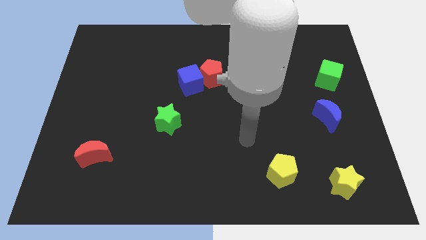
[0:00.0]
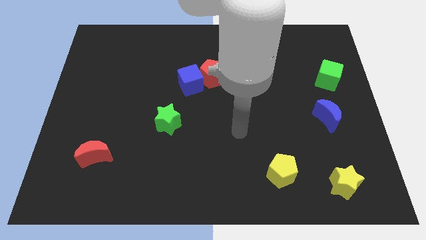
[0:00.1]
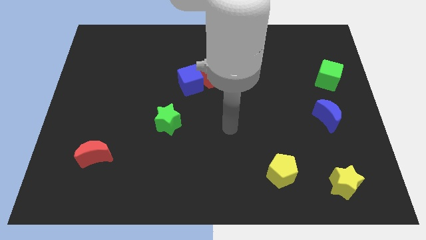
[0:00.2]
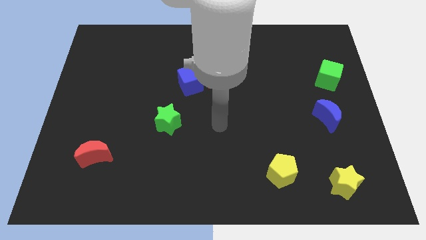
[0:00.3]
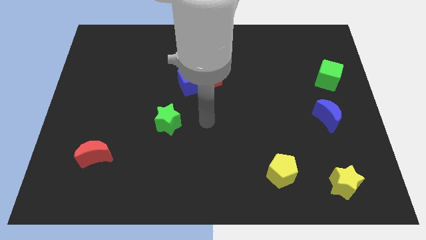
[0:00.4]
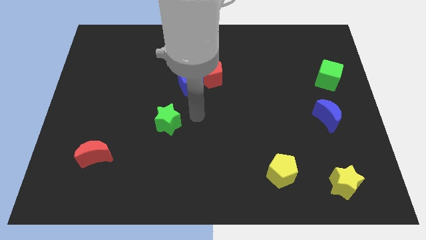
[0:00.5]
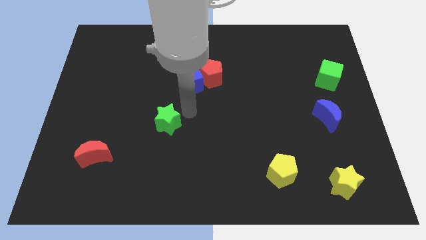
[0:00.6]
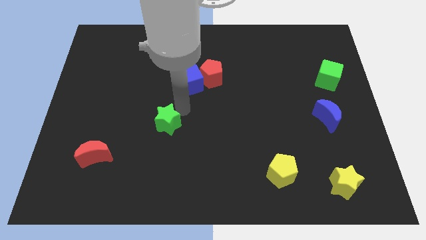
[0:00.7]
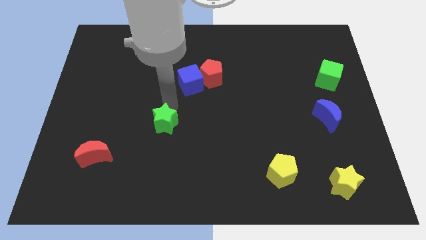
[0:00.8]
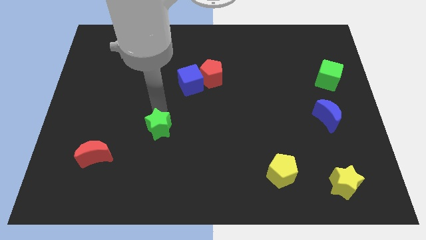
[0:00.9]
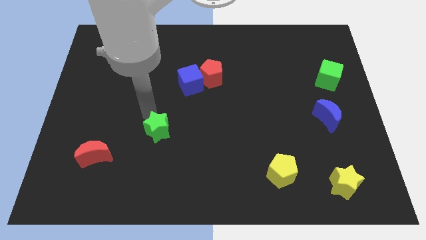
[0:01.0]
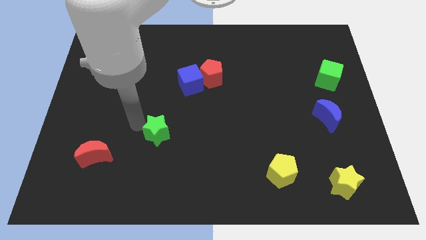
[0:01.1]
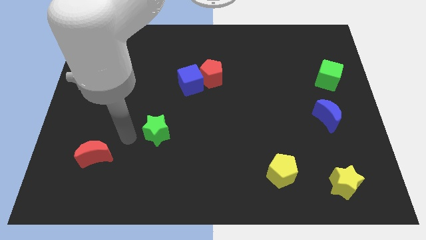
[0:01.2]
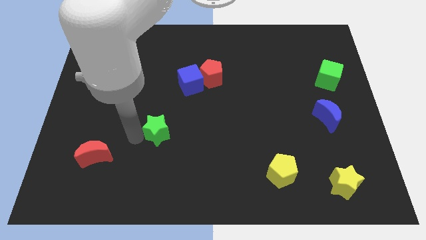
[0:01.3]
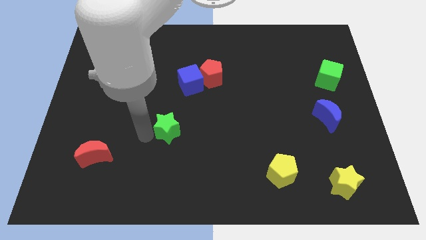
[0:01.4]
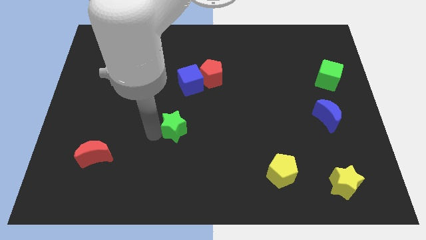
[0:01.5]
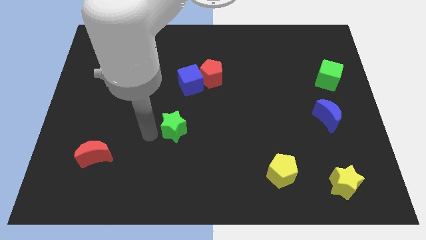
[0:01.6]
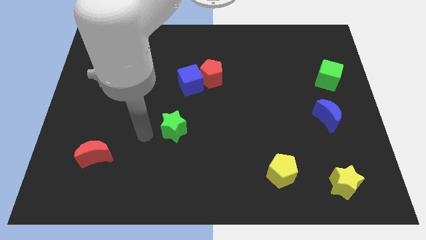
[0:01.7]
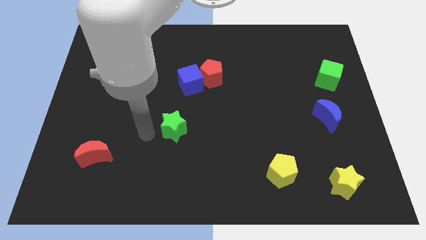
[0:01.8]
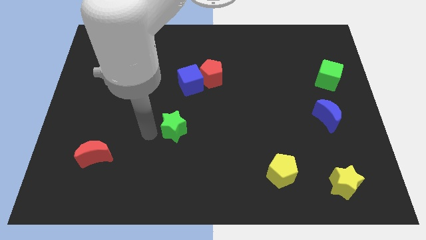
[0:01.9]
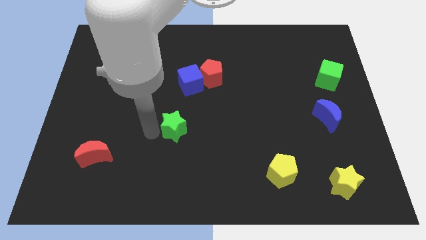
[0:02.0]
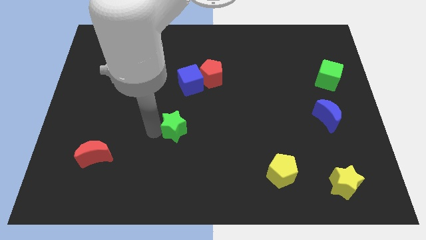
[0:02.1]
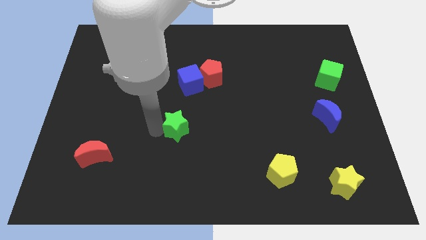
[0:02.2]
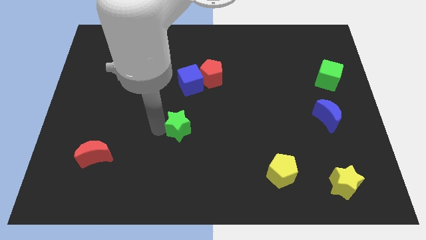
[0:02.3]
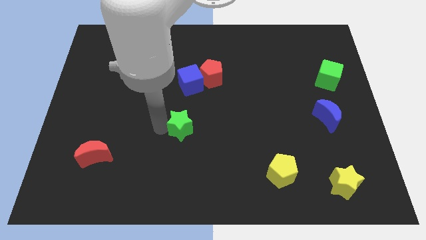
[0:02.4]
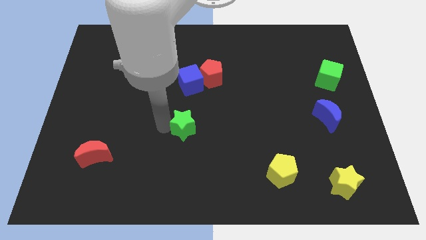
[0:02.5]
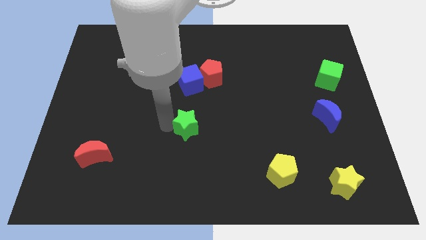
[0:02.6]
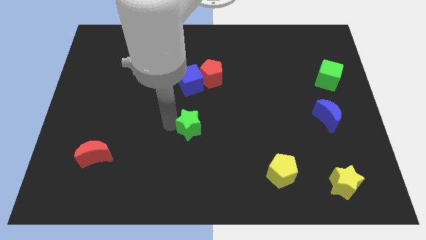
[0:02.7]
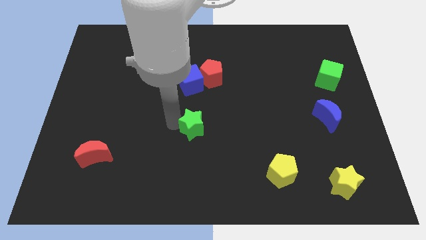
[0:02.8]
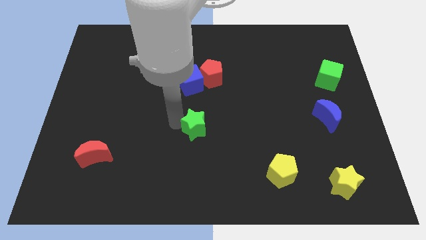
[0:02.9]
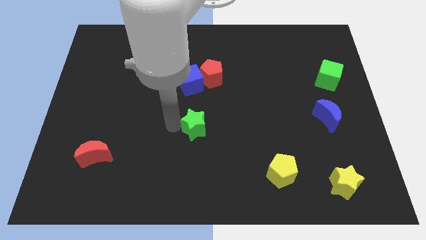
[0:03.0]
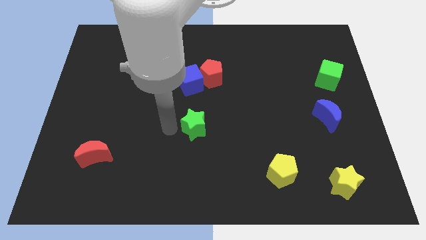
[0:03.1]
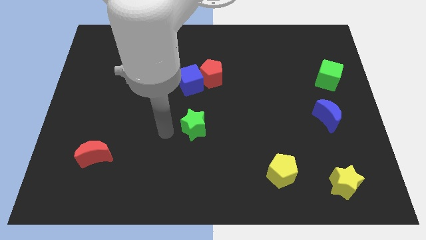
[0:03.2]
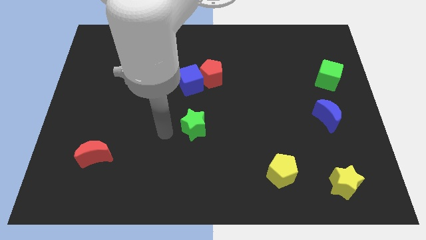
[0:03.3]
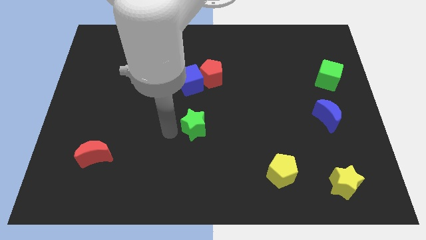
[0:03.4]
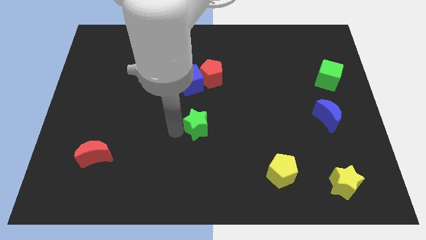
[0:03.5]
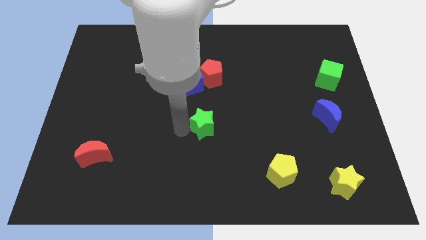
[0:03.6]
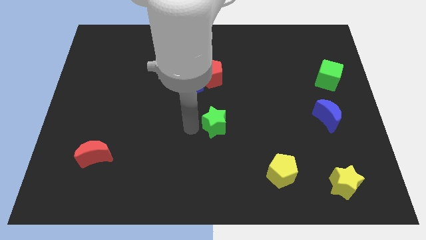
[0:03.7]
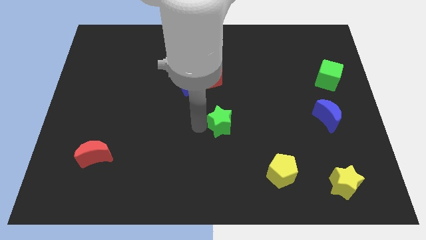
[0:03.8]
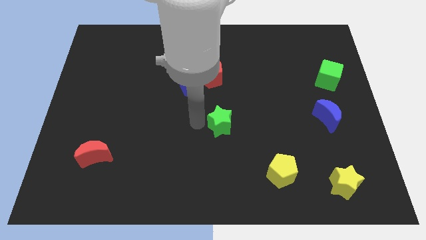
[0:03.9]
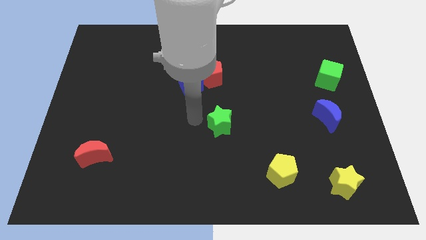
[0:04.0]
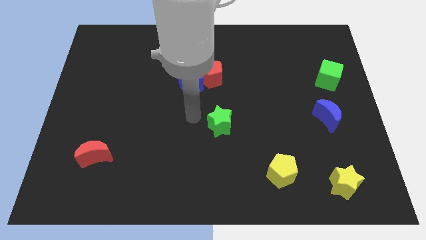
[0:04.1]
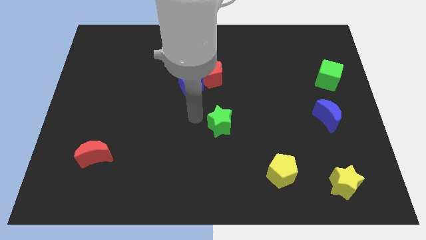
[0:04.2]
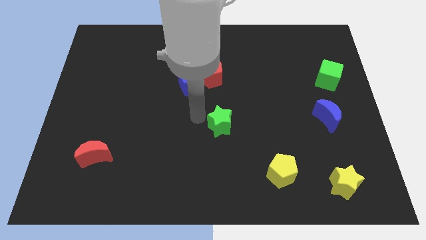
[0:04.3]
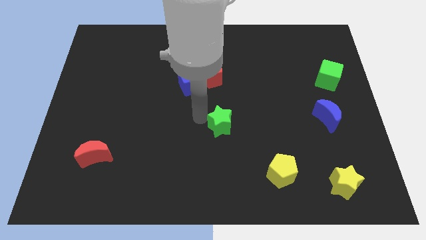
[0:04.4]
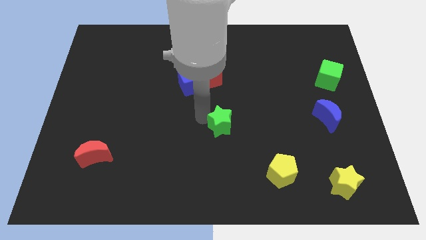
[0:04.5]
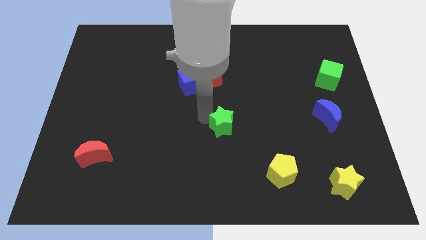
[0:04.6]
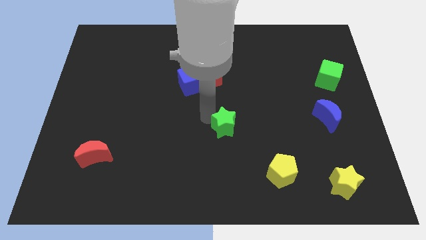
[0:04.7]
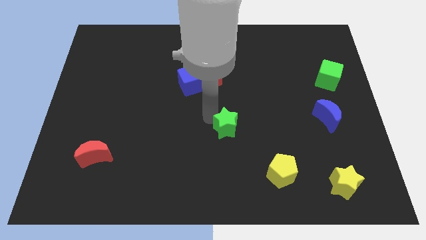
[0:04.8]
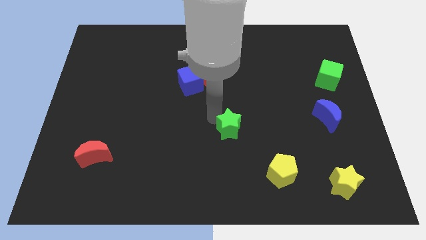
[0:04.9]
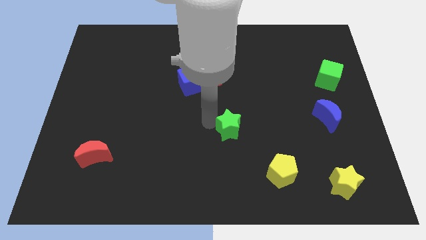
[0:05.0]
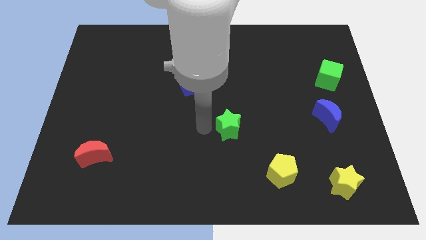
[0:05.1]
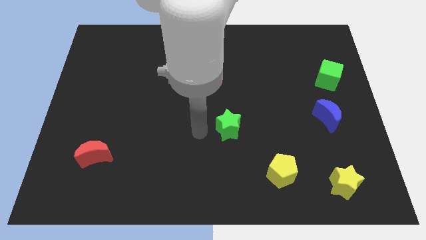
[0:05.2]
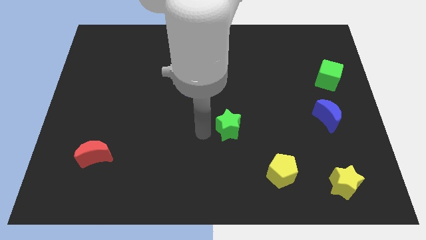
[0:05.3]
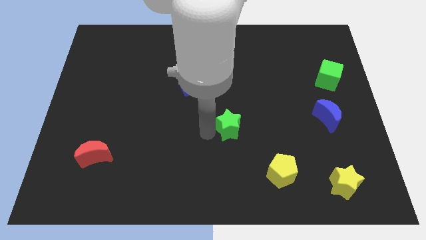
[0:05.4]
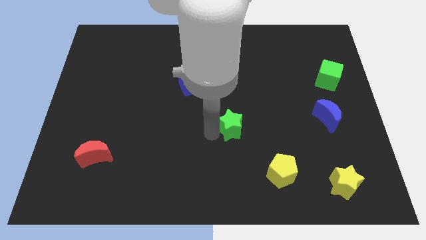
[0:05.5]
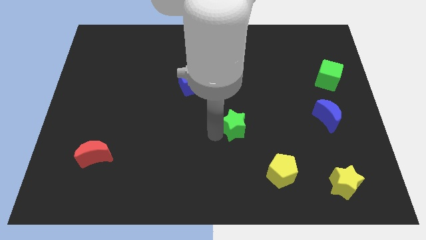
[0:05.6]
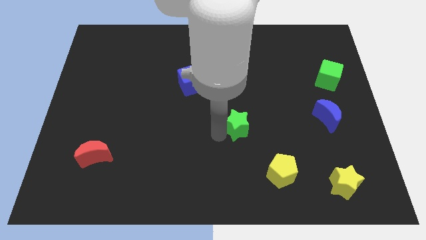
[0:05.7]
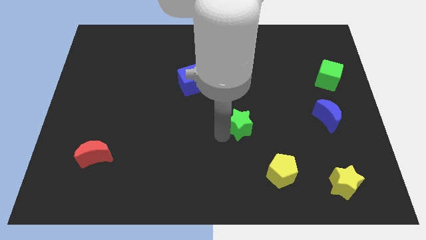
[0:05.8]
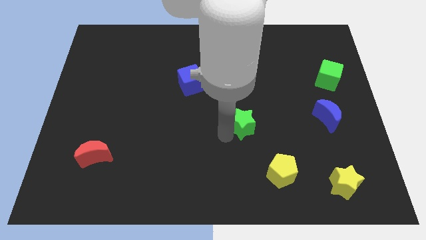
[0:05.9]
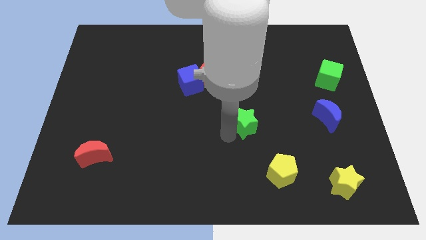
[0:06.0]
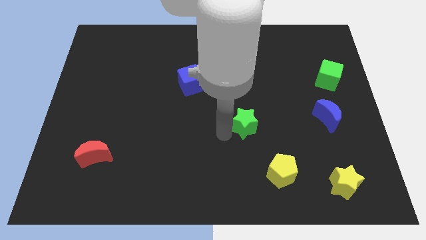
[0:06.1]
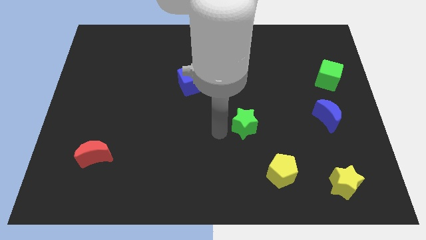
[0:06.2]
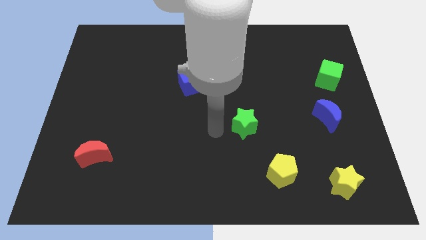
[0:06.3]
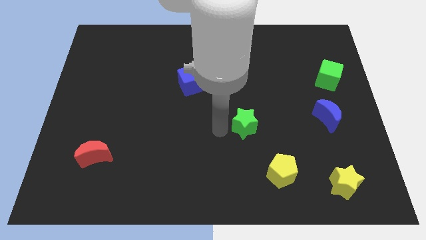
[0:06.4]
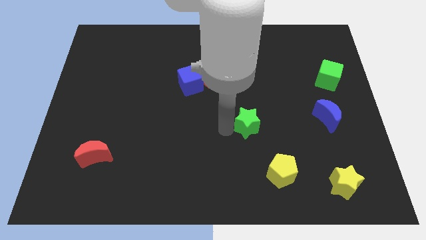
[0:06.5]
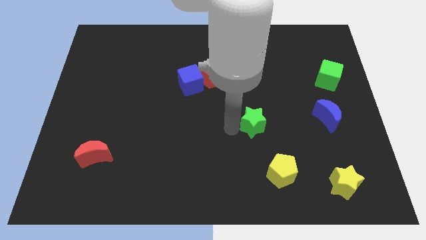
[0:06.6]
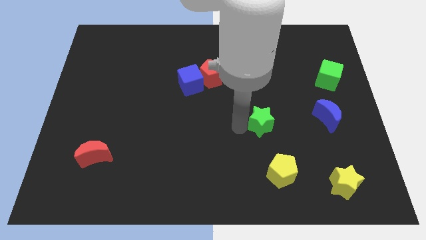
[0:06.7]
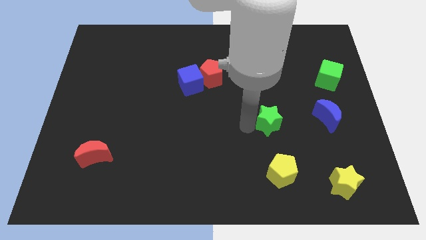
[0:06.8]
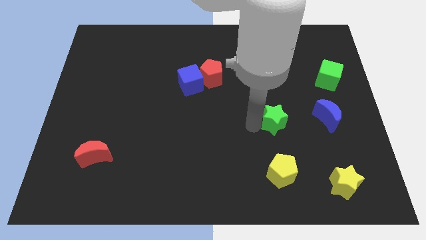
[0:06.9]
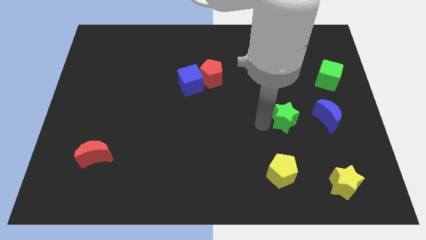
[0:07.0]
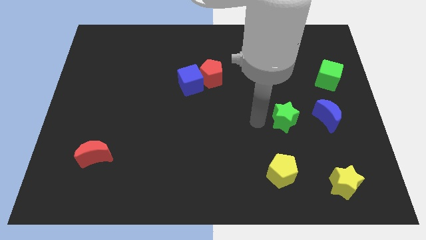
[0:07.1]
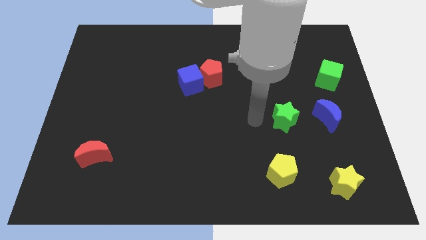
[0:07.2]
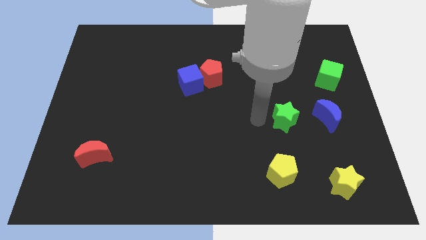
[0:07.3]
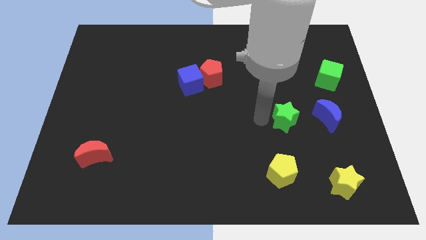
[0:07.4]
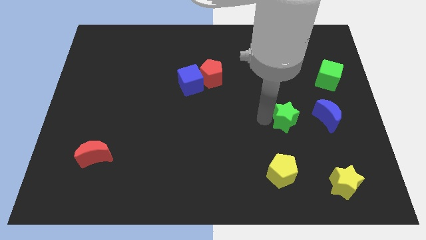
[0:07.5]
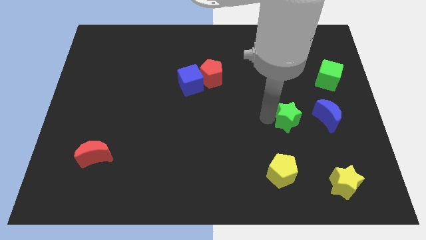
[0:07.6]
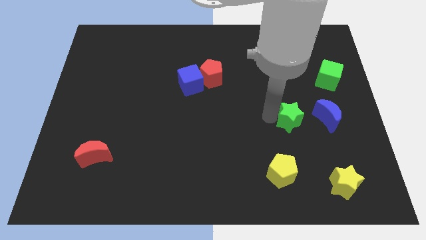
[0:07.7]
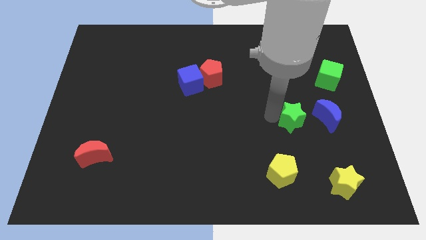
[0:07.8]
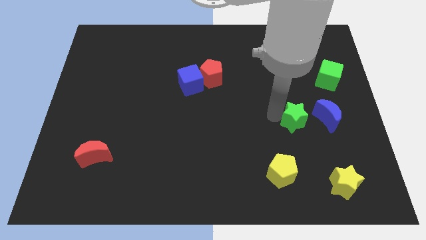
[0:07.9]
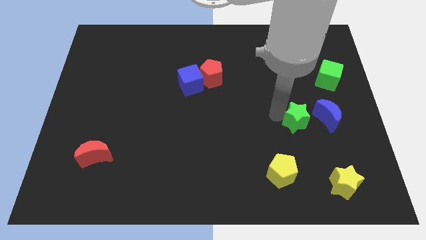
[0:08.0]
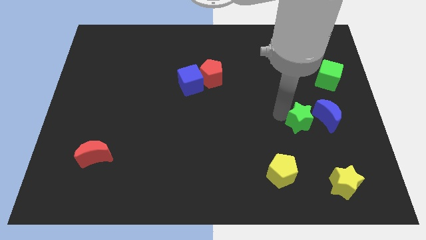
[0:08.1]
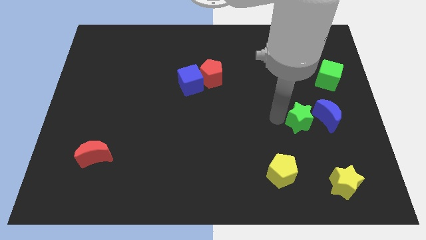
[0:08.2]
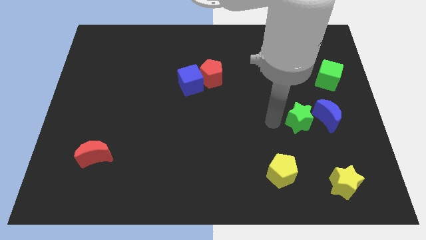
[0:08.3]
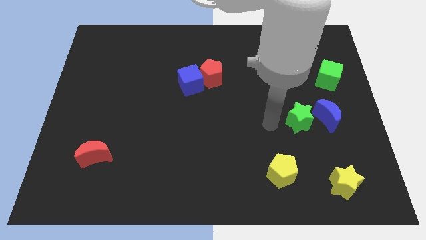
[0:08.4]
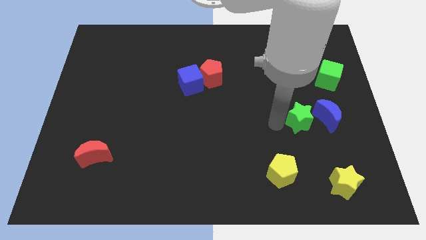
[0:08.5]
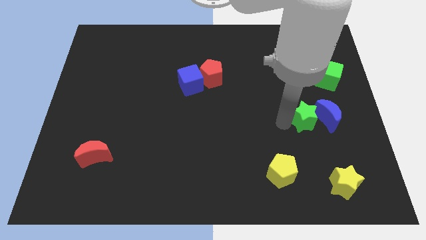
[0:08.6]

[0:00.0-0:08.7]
put the green star towards the blue moon
